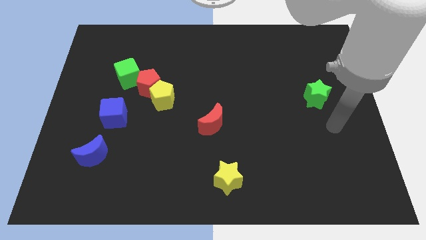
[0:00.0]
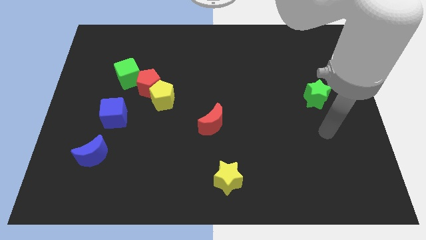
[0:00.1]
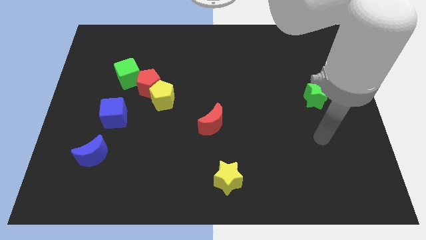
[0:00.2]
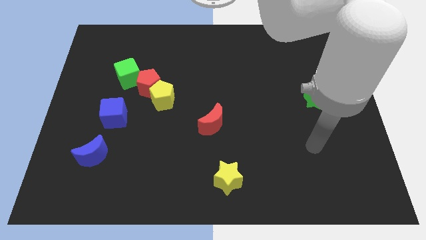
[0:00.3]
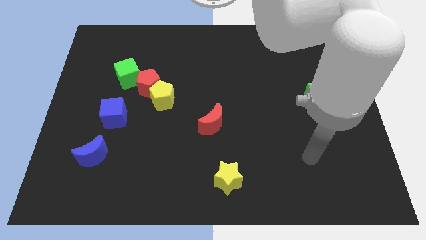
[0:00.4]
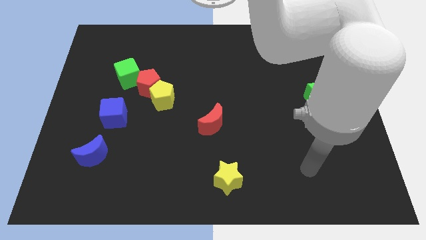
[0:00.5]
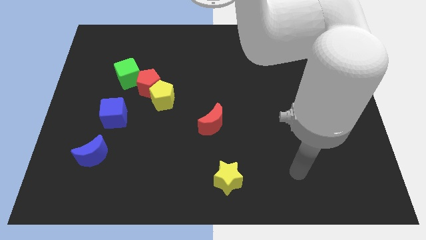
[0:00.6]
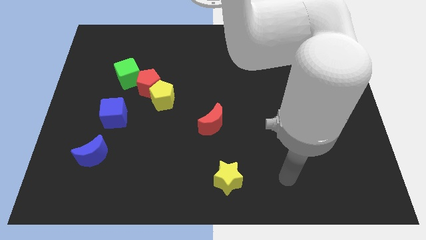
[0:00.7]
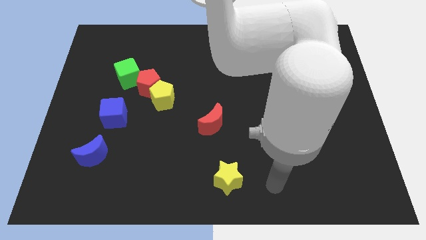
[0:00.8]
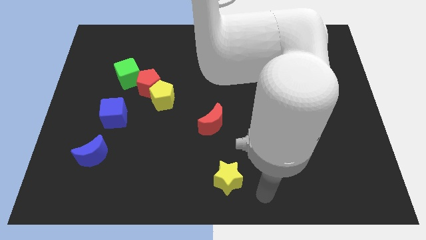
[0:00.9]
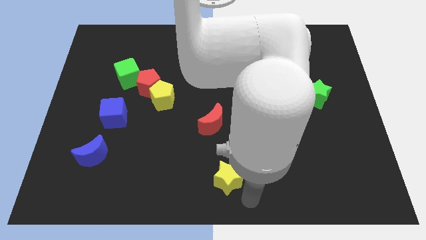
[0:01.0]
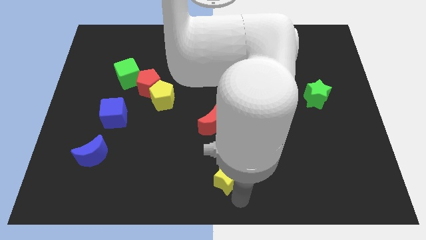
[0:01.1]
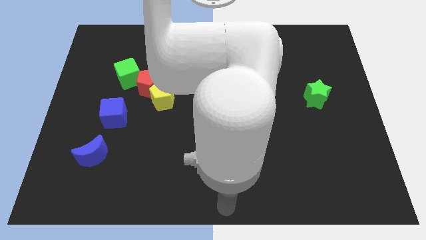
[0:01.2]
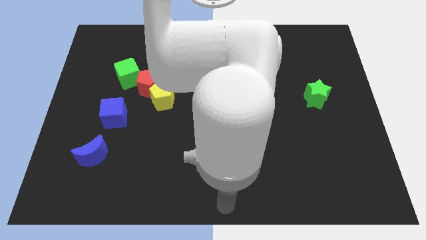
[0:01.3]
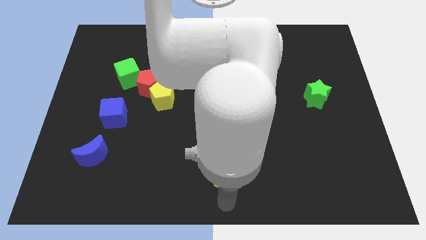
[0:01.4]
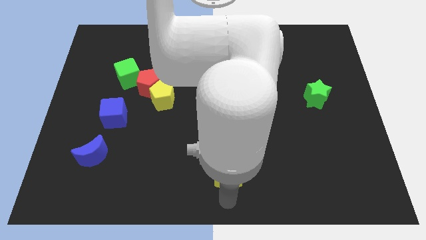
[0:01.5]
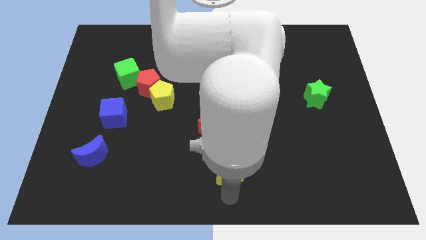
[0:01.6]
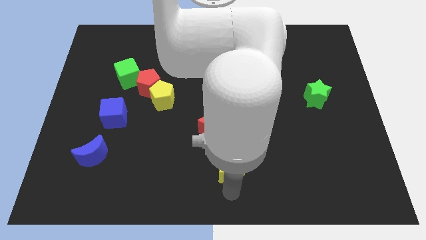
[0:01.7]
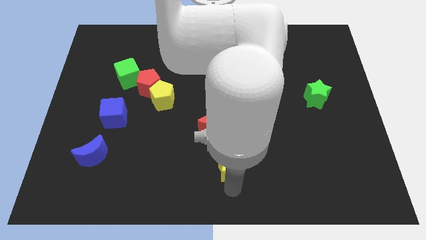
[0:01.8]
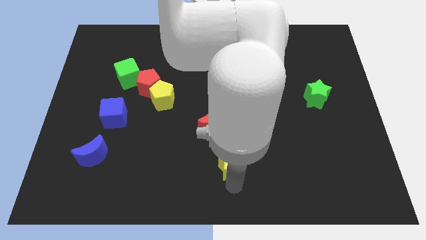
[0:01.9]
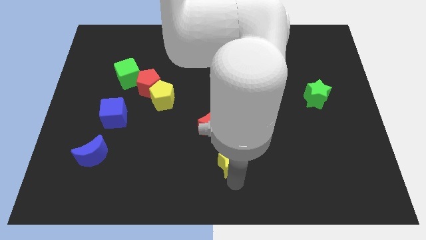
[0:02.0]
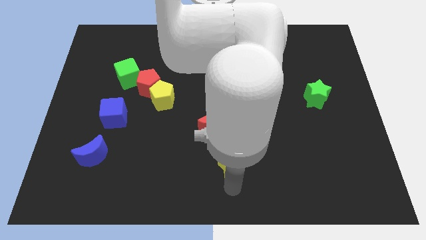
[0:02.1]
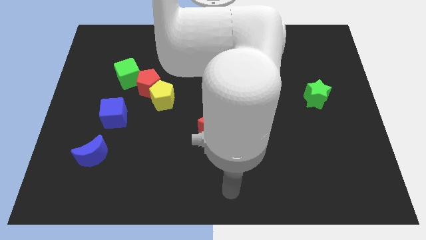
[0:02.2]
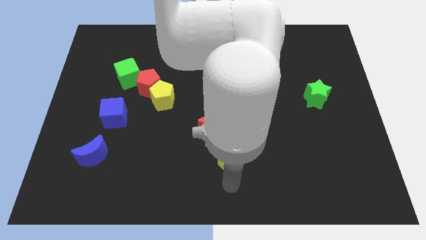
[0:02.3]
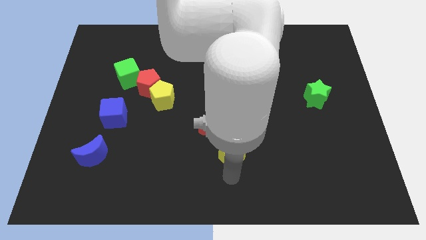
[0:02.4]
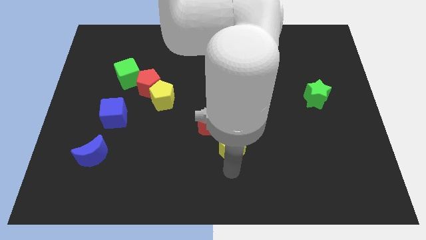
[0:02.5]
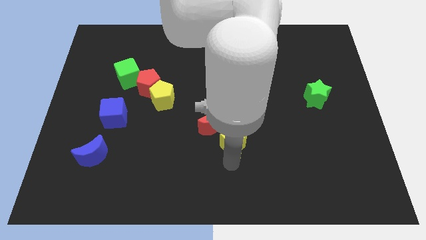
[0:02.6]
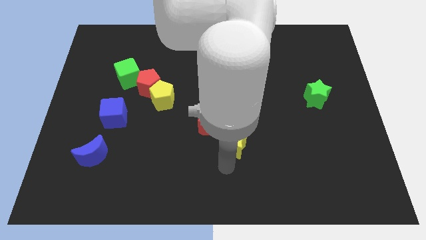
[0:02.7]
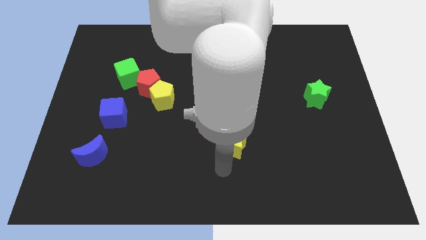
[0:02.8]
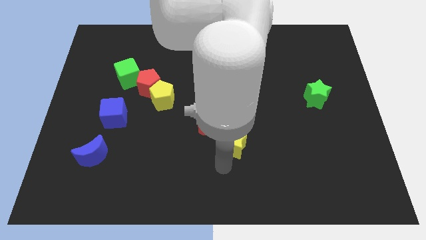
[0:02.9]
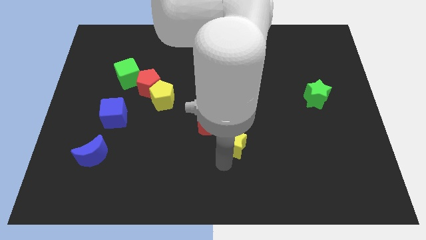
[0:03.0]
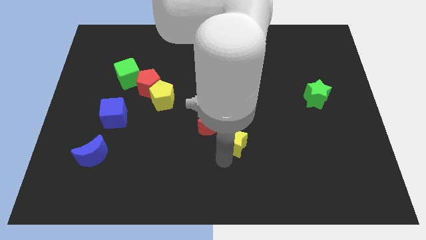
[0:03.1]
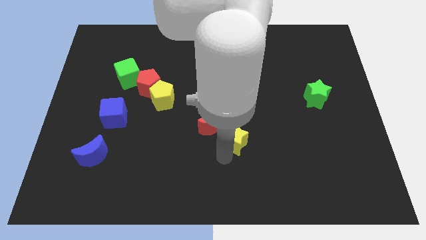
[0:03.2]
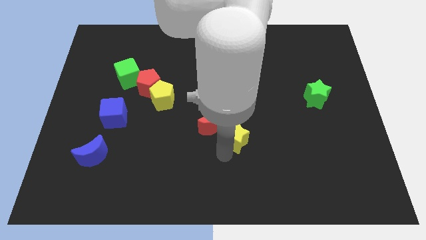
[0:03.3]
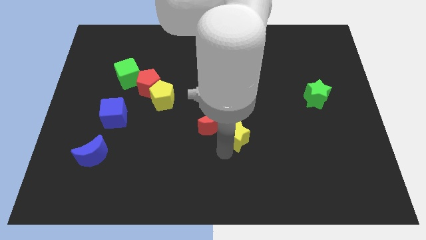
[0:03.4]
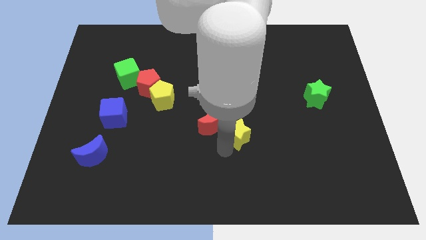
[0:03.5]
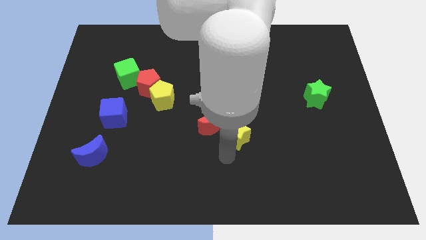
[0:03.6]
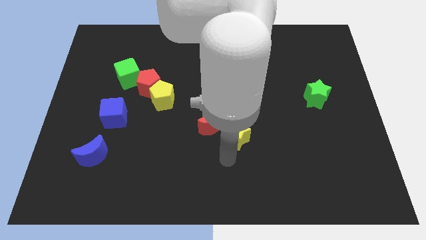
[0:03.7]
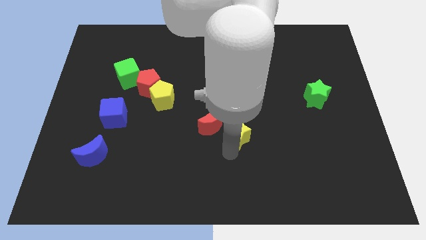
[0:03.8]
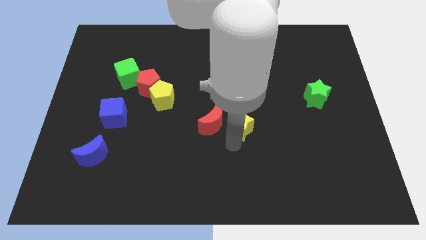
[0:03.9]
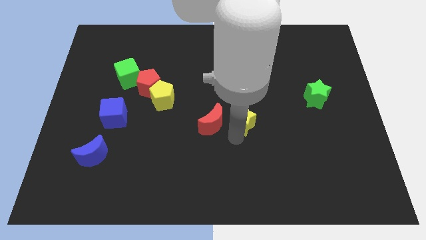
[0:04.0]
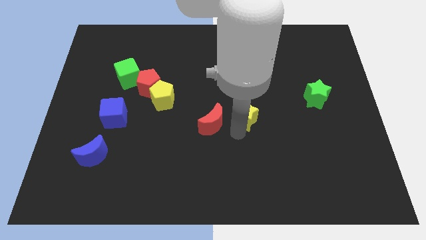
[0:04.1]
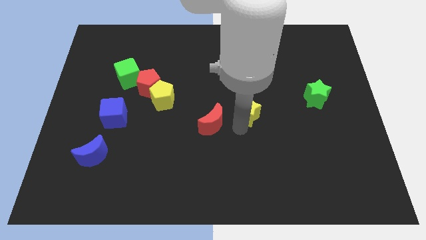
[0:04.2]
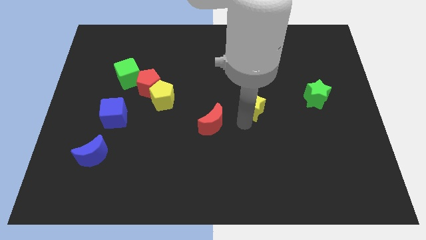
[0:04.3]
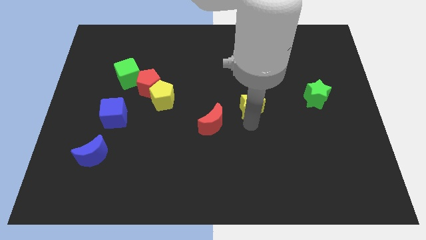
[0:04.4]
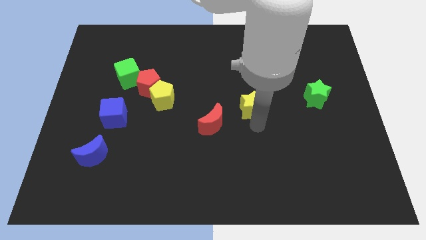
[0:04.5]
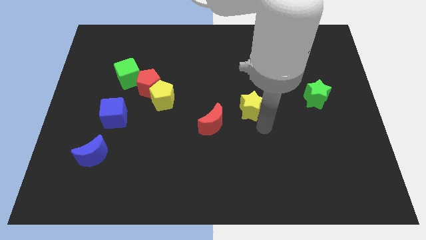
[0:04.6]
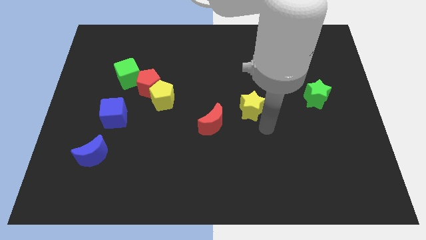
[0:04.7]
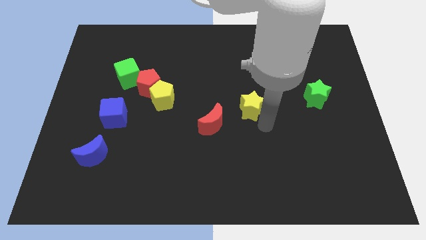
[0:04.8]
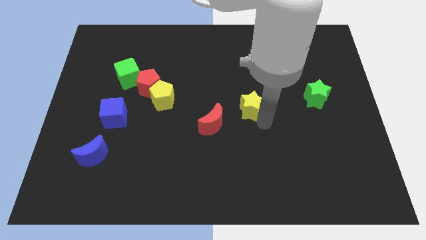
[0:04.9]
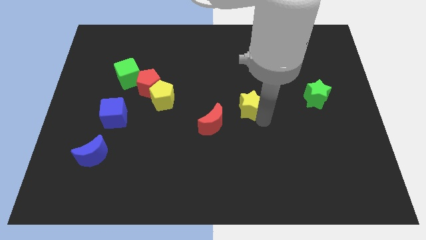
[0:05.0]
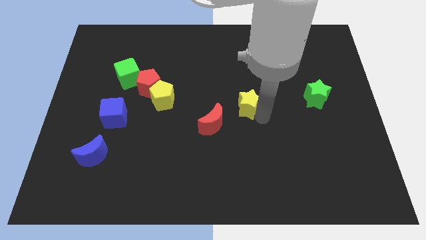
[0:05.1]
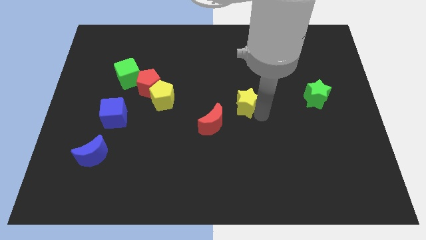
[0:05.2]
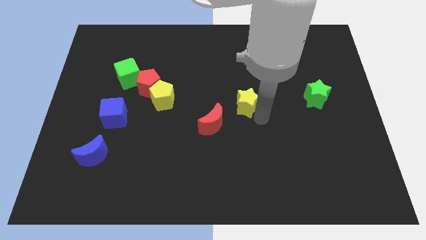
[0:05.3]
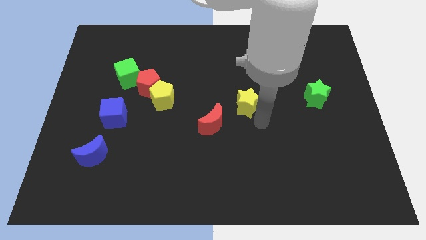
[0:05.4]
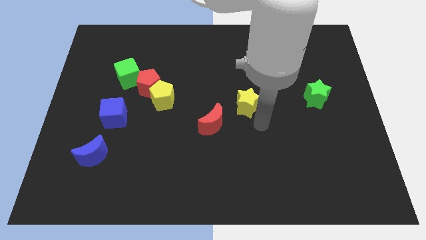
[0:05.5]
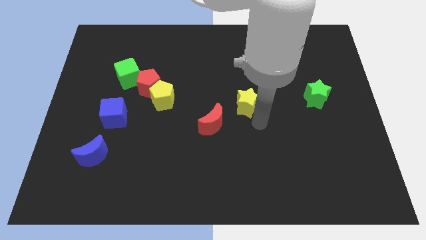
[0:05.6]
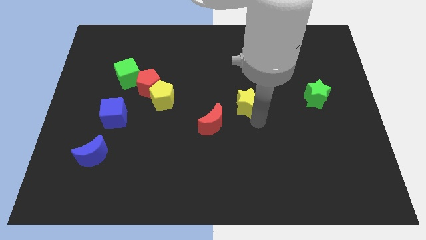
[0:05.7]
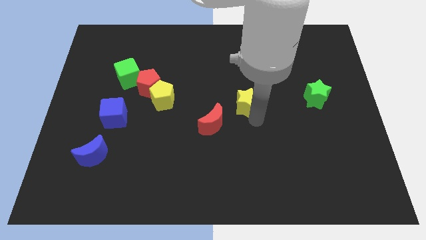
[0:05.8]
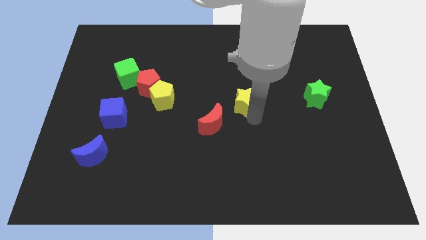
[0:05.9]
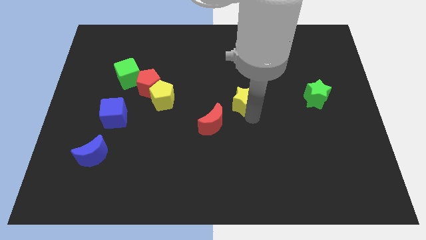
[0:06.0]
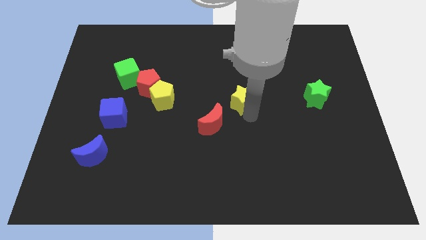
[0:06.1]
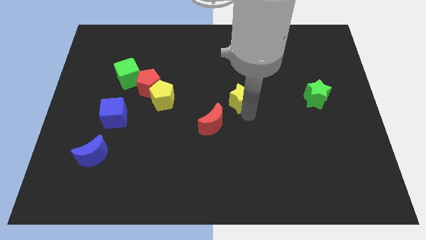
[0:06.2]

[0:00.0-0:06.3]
slide the yellow star upwards

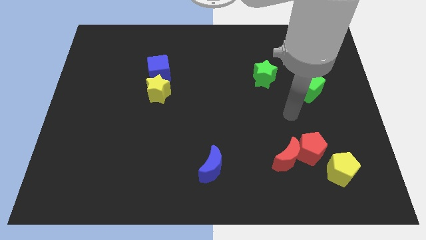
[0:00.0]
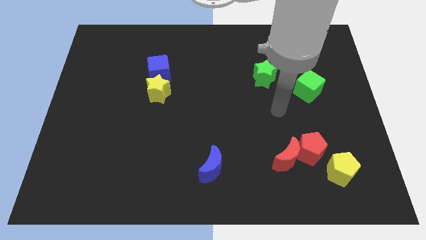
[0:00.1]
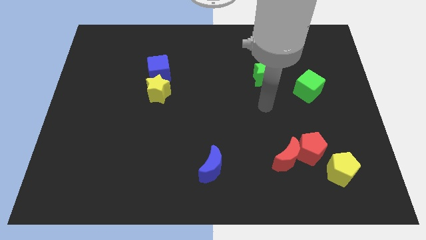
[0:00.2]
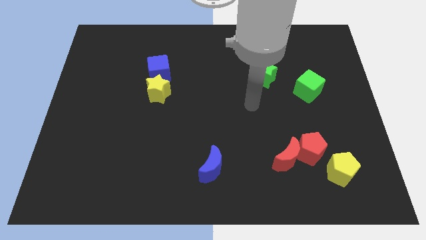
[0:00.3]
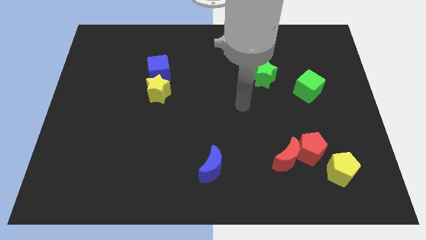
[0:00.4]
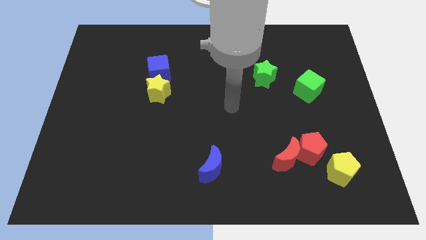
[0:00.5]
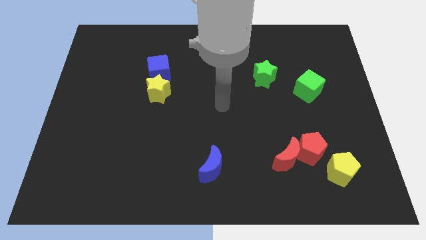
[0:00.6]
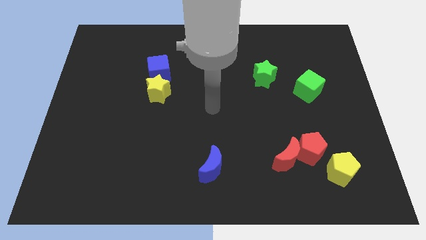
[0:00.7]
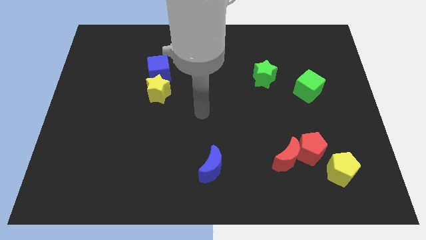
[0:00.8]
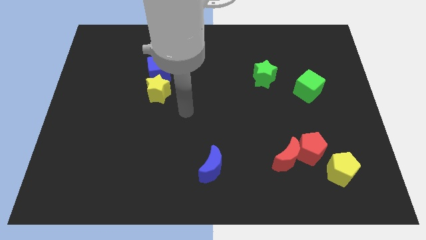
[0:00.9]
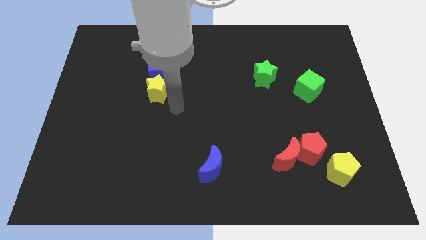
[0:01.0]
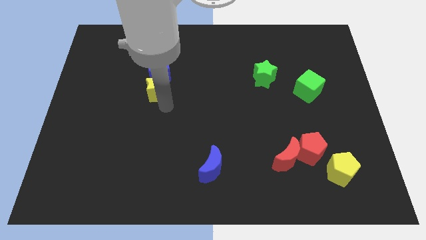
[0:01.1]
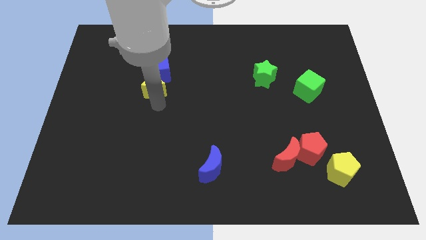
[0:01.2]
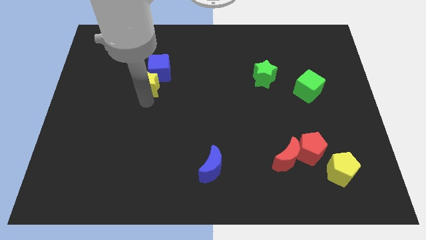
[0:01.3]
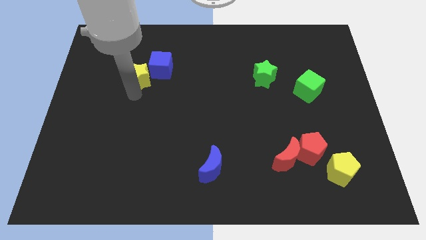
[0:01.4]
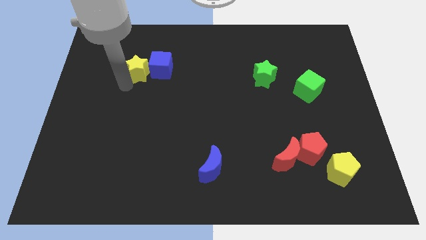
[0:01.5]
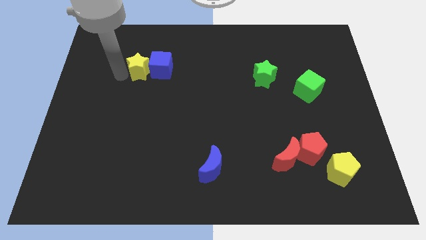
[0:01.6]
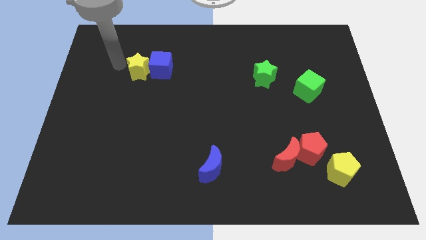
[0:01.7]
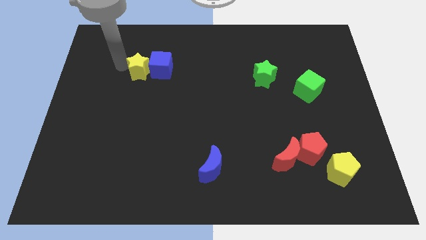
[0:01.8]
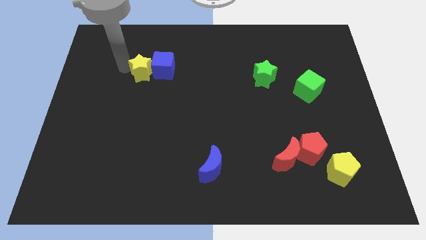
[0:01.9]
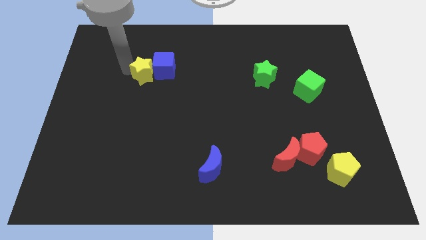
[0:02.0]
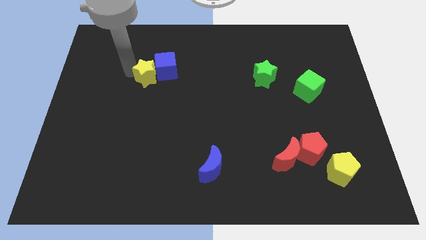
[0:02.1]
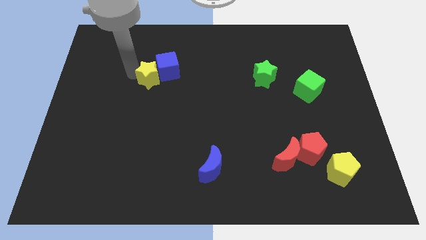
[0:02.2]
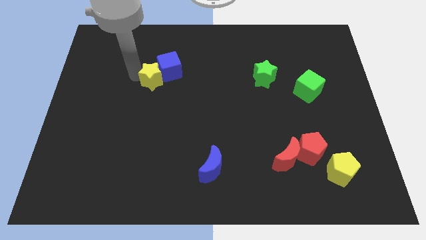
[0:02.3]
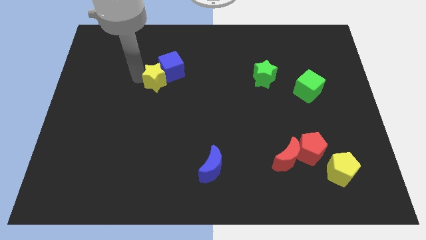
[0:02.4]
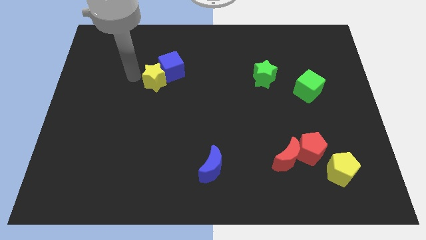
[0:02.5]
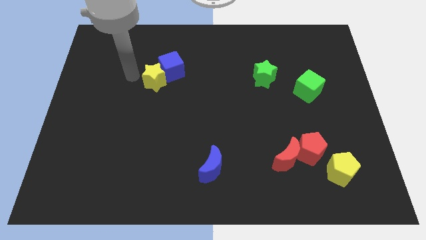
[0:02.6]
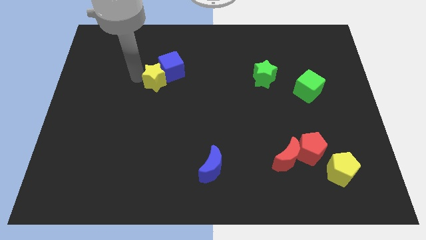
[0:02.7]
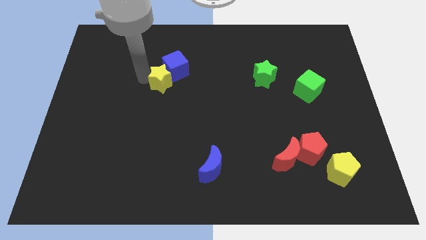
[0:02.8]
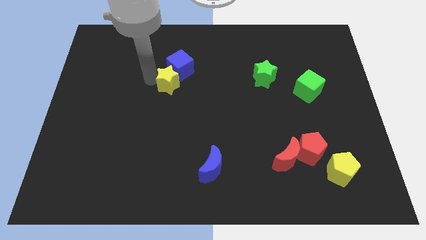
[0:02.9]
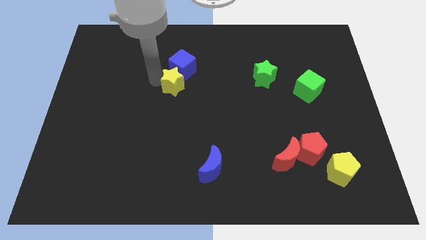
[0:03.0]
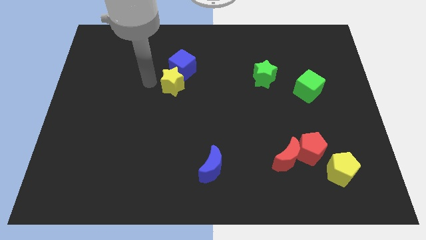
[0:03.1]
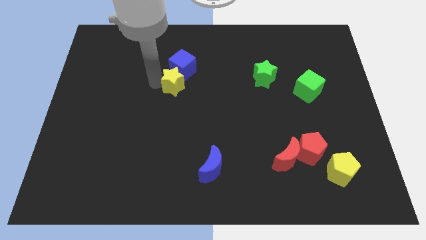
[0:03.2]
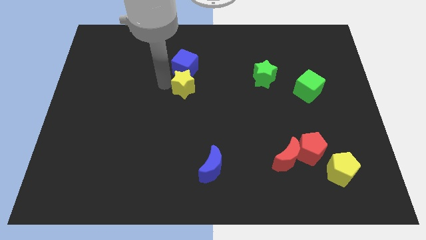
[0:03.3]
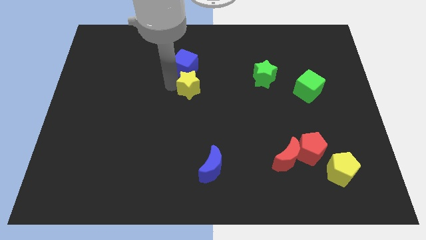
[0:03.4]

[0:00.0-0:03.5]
push the yellow star slightly right
